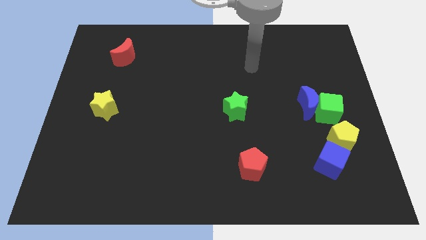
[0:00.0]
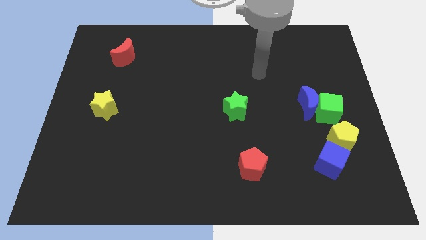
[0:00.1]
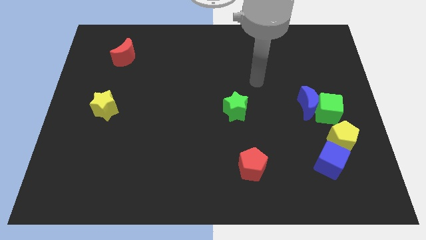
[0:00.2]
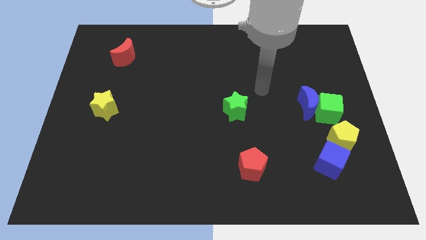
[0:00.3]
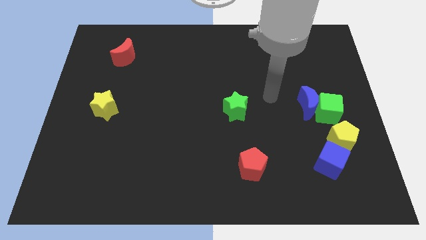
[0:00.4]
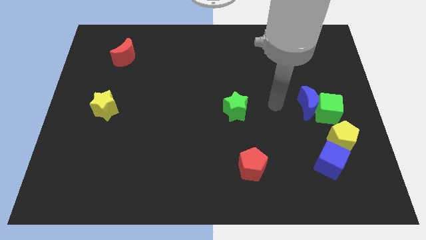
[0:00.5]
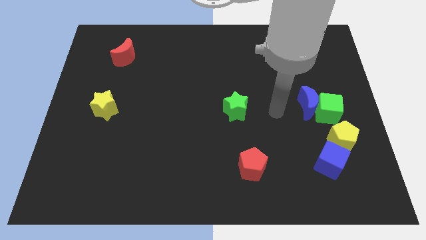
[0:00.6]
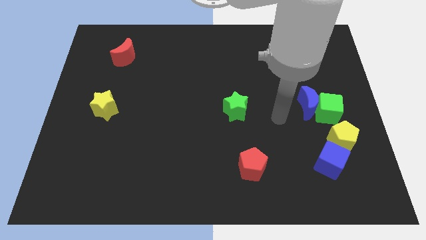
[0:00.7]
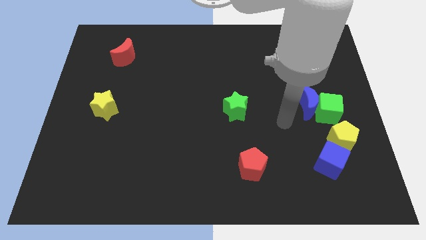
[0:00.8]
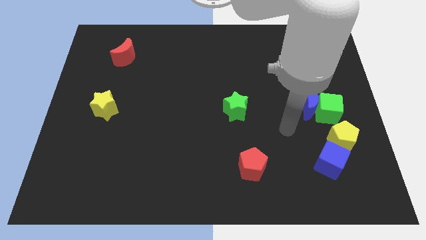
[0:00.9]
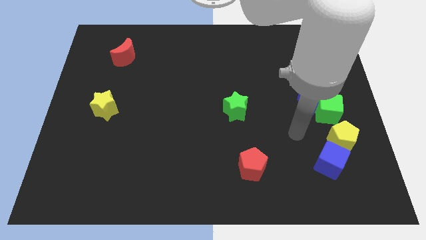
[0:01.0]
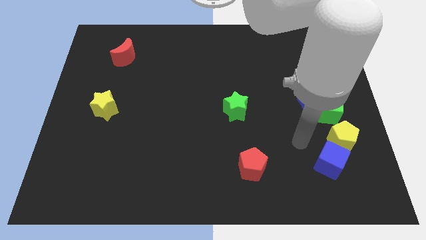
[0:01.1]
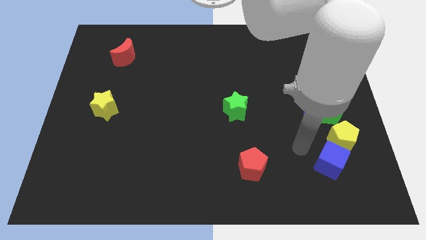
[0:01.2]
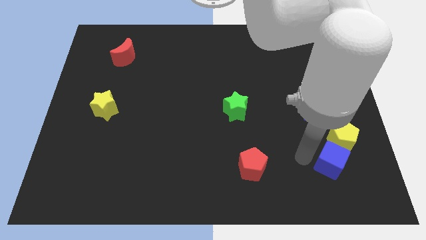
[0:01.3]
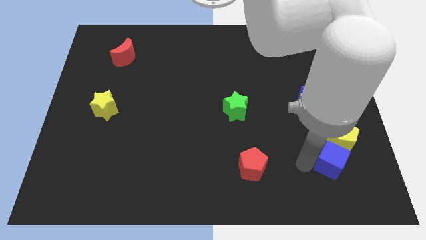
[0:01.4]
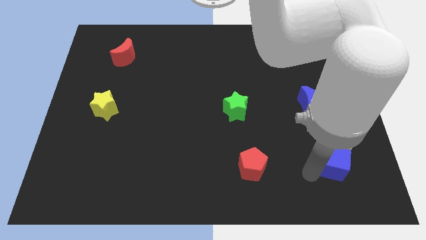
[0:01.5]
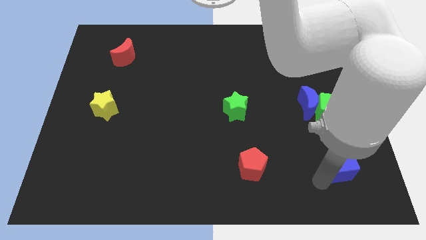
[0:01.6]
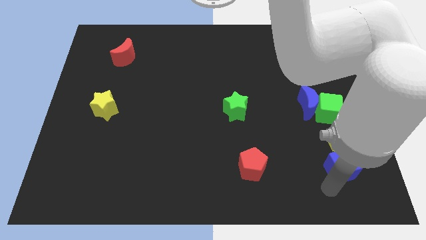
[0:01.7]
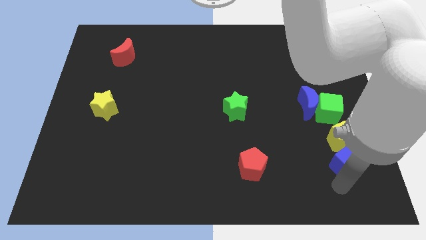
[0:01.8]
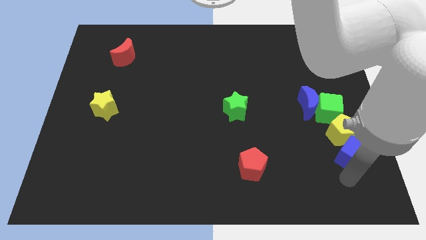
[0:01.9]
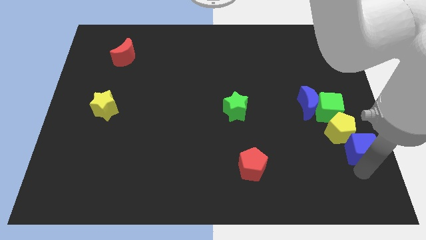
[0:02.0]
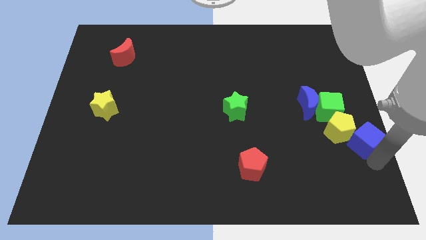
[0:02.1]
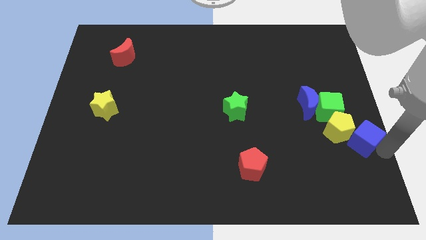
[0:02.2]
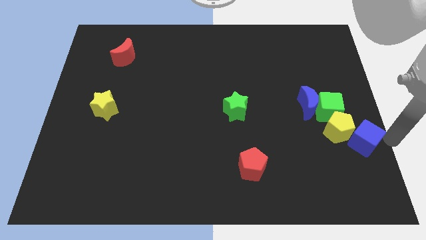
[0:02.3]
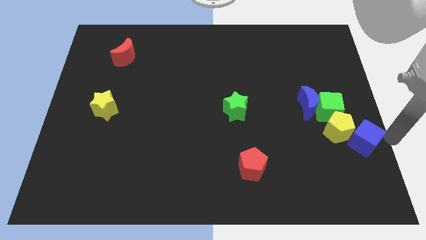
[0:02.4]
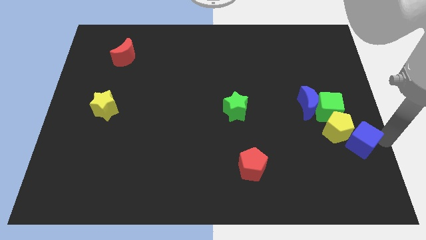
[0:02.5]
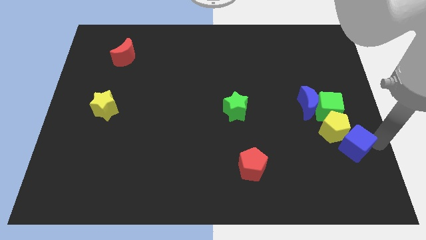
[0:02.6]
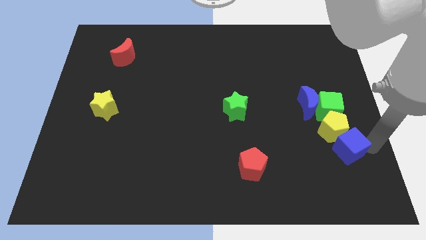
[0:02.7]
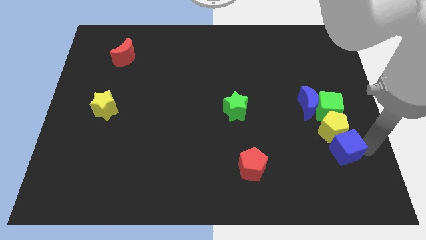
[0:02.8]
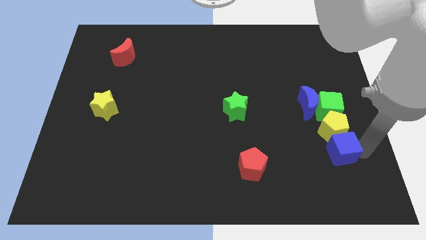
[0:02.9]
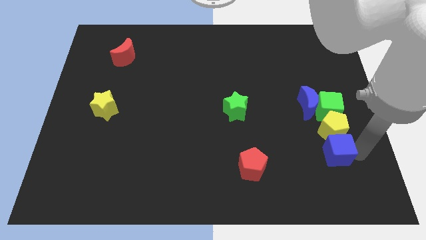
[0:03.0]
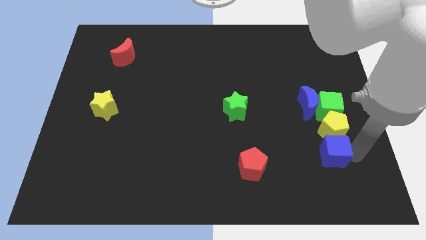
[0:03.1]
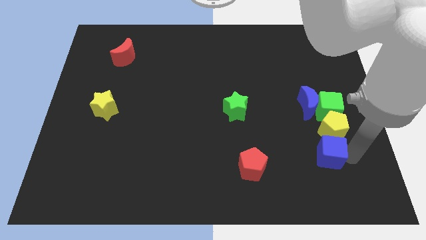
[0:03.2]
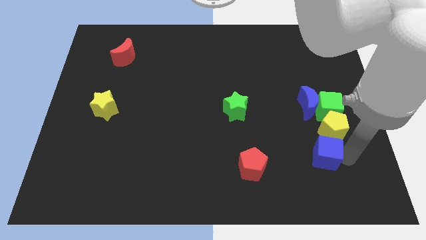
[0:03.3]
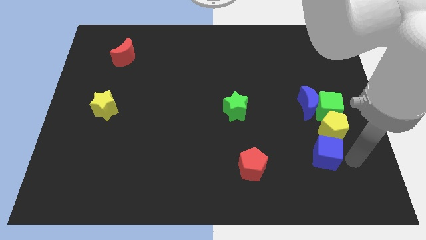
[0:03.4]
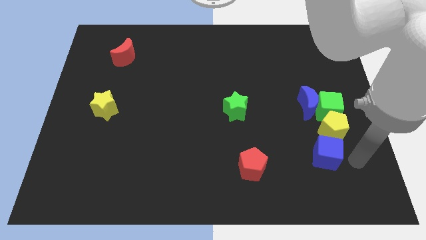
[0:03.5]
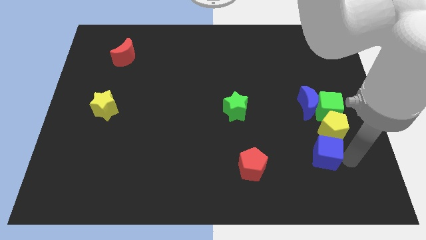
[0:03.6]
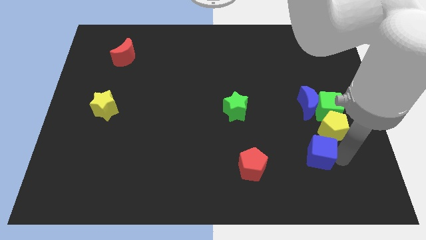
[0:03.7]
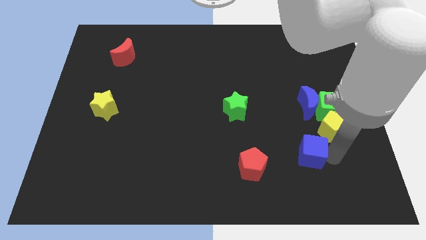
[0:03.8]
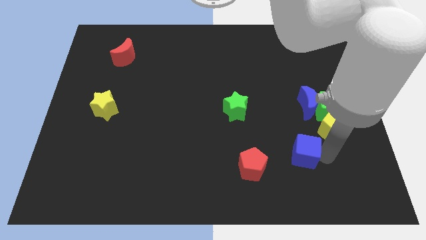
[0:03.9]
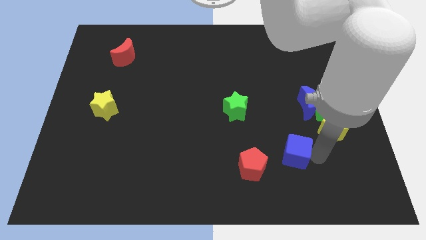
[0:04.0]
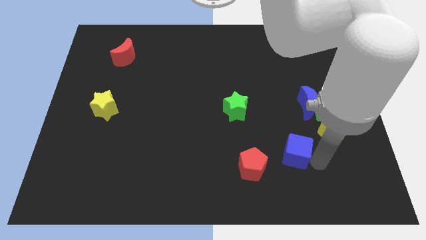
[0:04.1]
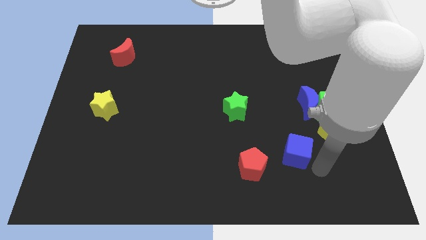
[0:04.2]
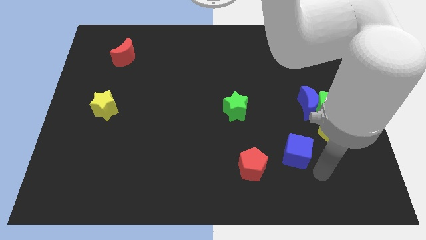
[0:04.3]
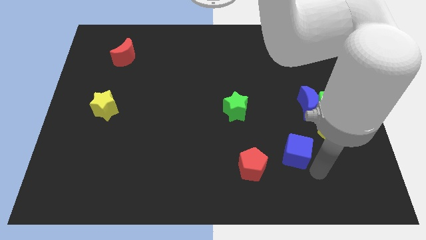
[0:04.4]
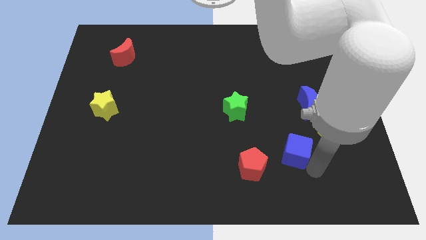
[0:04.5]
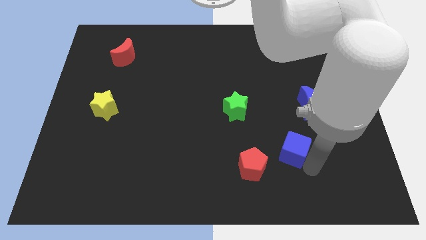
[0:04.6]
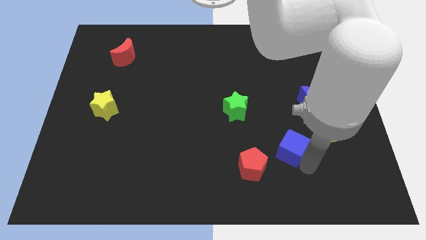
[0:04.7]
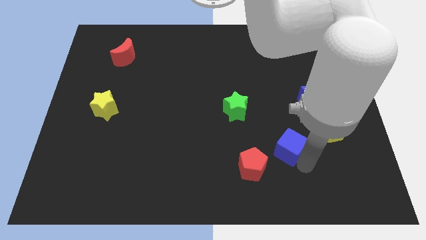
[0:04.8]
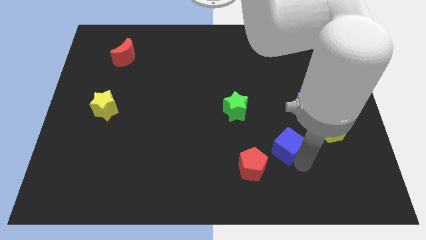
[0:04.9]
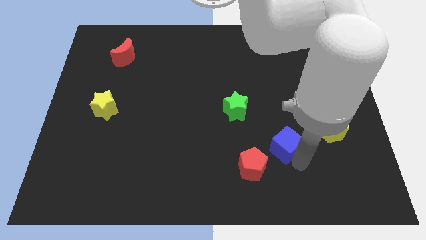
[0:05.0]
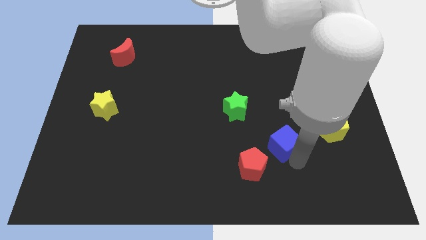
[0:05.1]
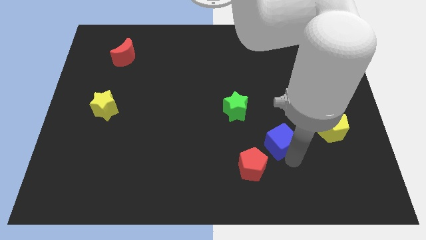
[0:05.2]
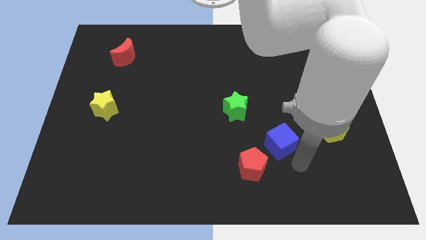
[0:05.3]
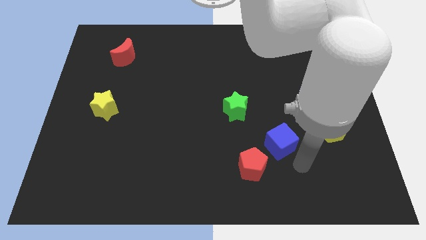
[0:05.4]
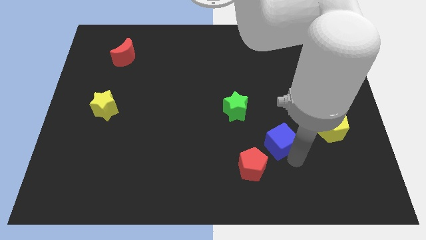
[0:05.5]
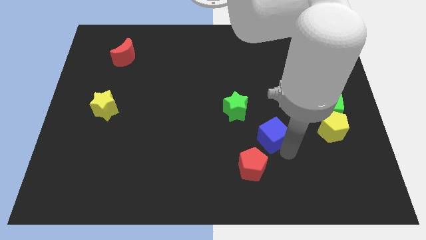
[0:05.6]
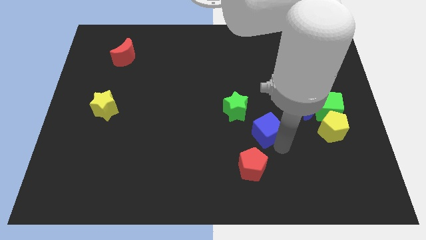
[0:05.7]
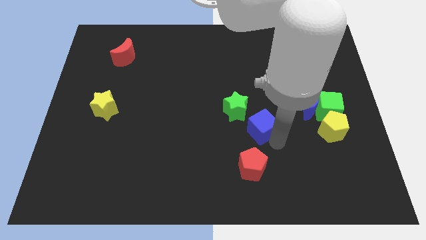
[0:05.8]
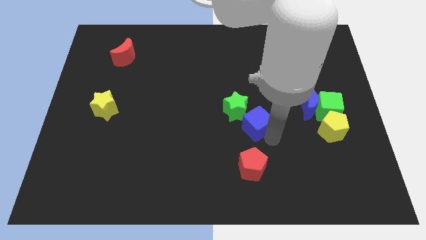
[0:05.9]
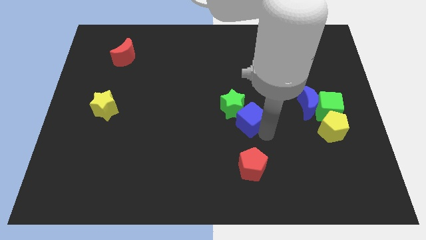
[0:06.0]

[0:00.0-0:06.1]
slide the blue cube towards the green star

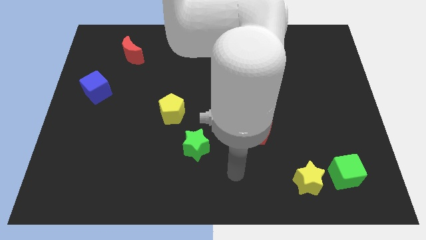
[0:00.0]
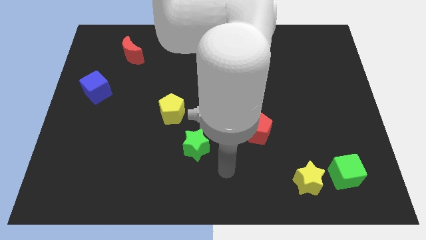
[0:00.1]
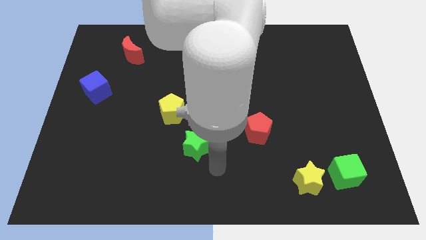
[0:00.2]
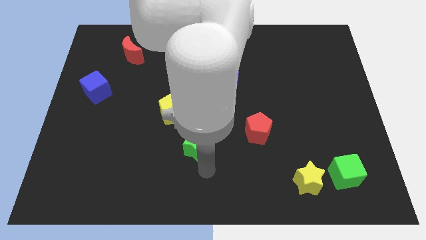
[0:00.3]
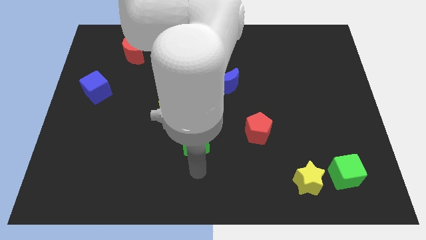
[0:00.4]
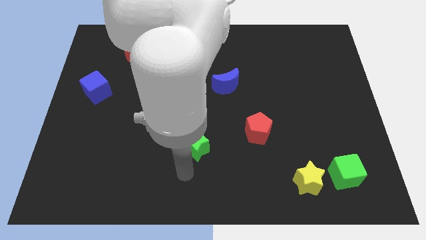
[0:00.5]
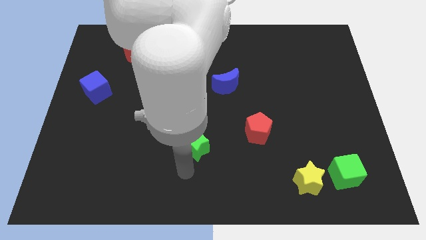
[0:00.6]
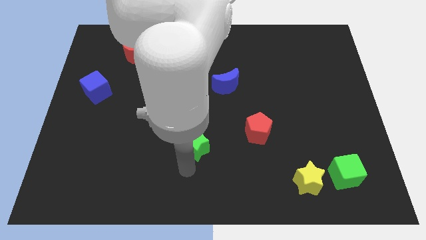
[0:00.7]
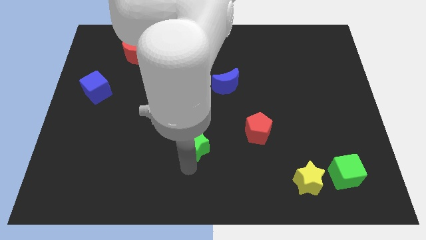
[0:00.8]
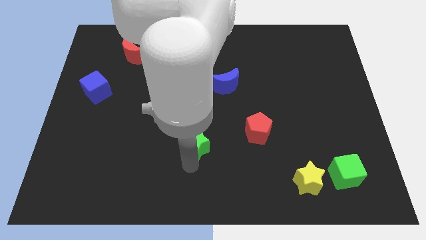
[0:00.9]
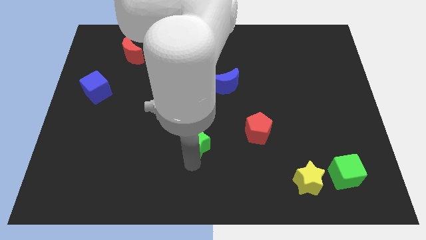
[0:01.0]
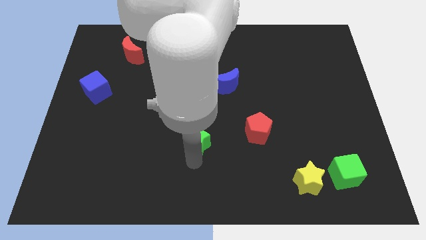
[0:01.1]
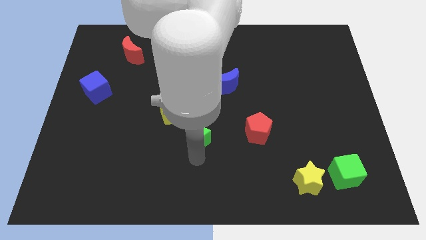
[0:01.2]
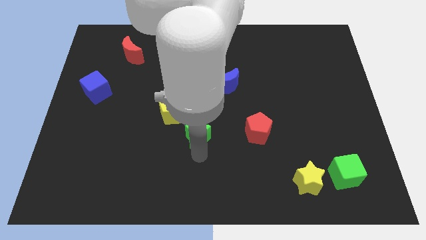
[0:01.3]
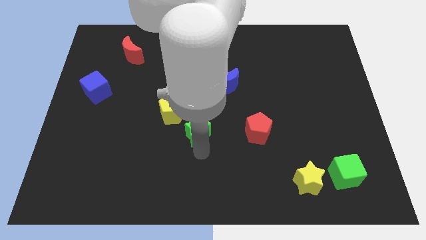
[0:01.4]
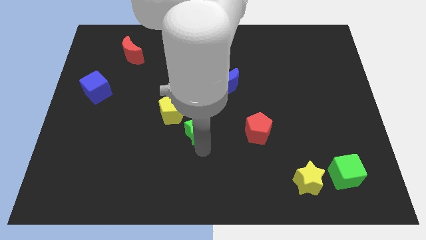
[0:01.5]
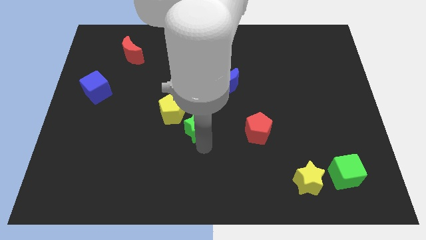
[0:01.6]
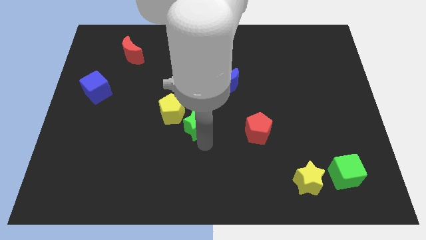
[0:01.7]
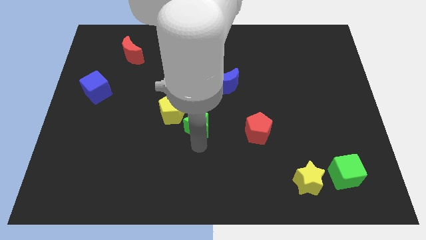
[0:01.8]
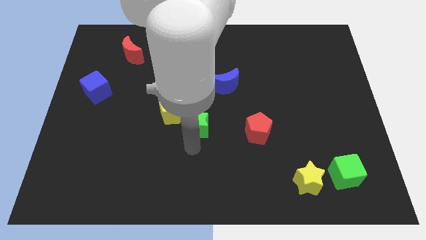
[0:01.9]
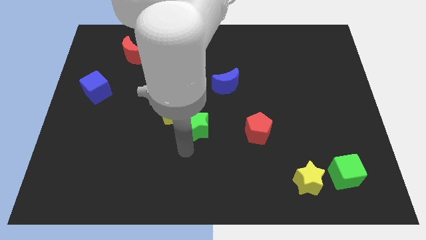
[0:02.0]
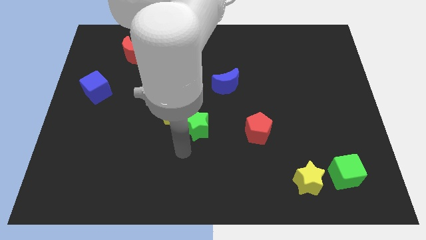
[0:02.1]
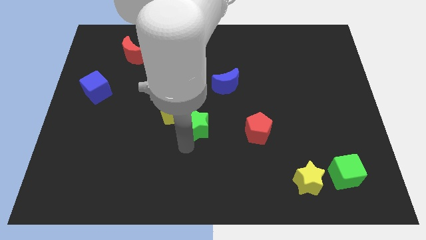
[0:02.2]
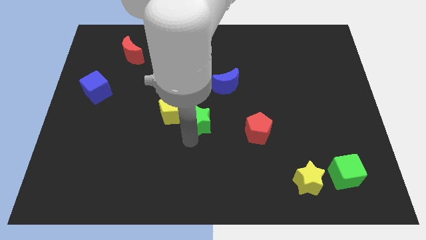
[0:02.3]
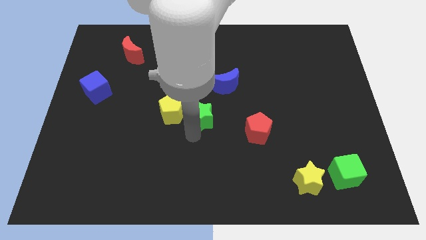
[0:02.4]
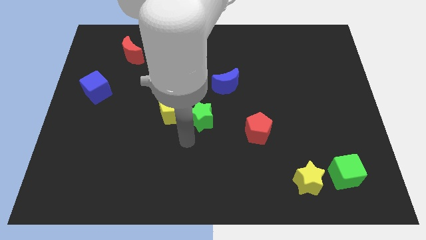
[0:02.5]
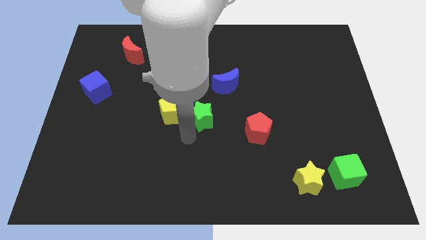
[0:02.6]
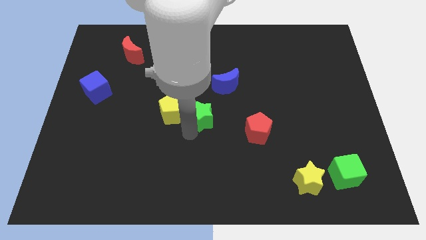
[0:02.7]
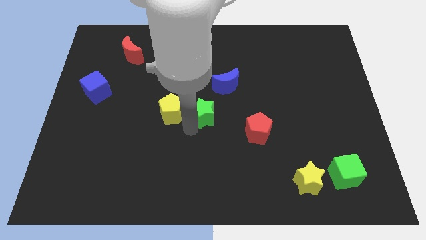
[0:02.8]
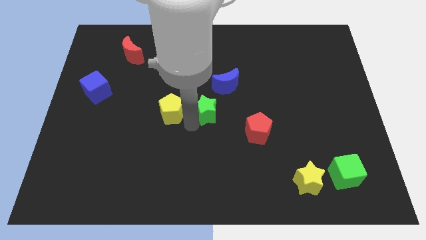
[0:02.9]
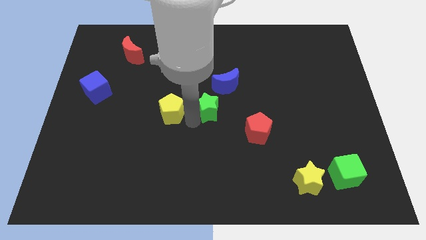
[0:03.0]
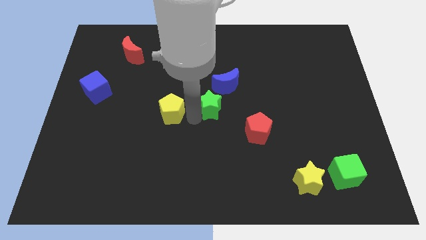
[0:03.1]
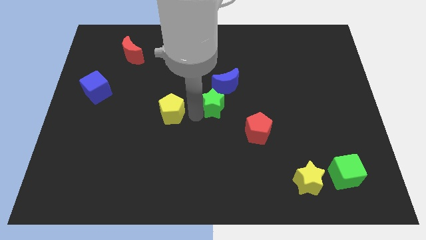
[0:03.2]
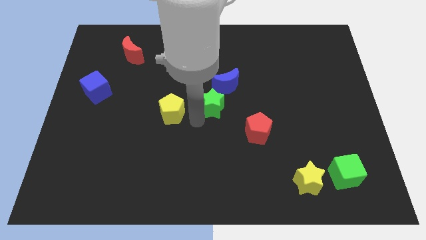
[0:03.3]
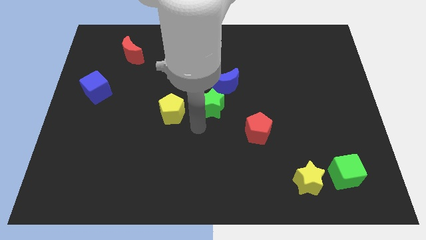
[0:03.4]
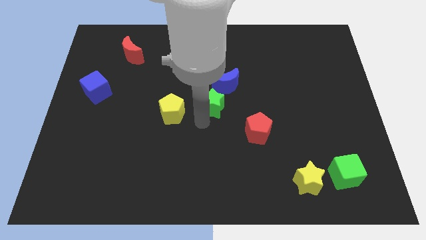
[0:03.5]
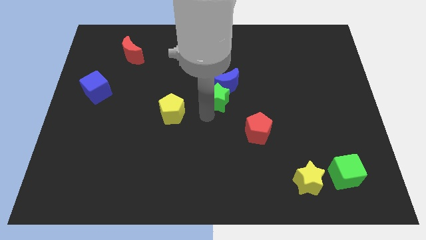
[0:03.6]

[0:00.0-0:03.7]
put the green star towards the blue moon
